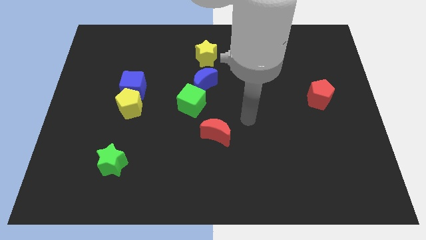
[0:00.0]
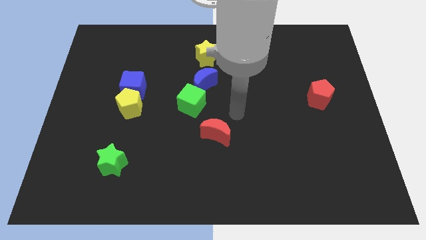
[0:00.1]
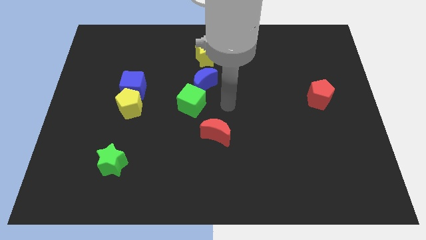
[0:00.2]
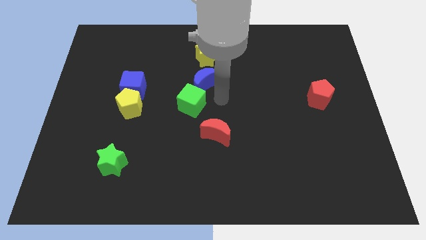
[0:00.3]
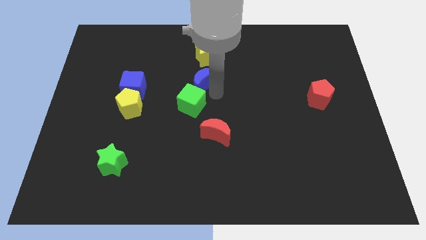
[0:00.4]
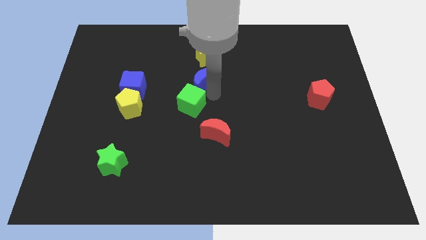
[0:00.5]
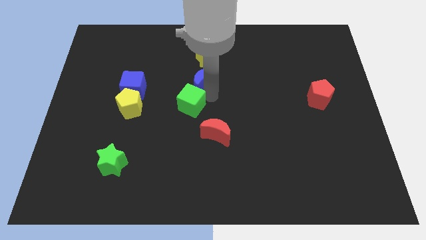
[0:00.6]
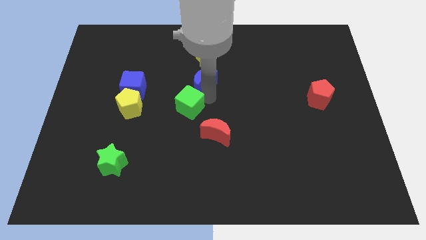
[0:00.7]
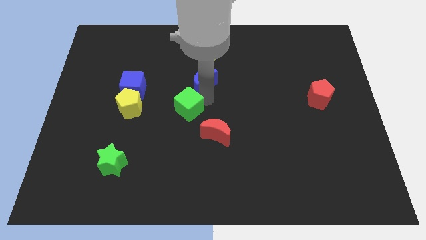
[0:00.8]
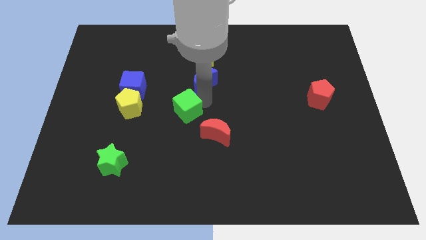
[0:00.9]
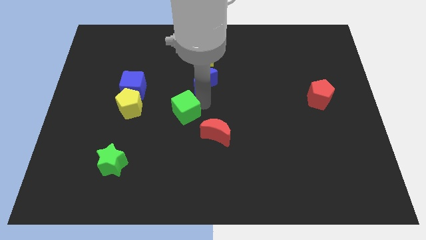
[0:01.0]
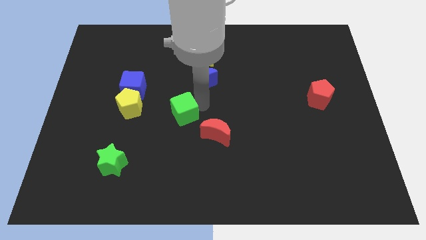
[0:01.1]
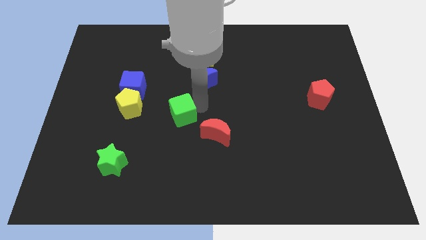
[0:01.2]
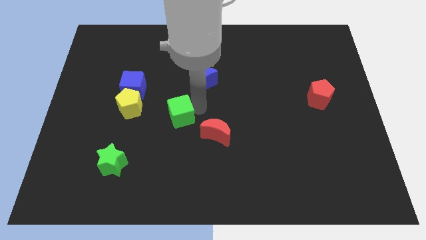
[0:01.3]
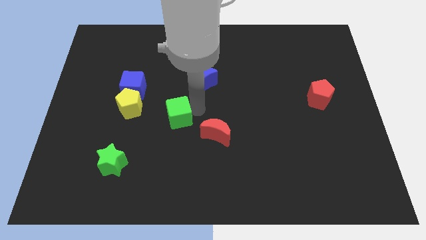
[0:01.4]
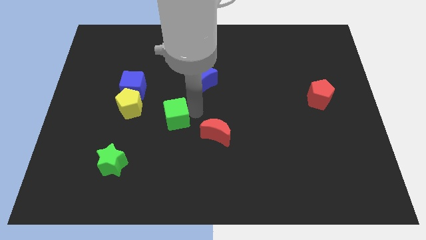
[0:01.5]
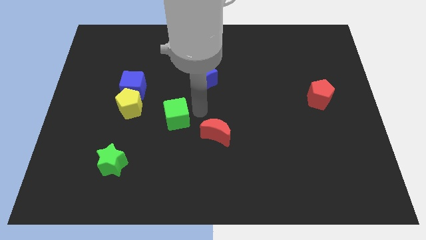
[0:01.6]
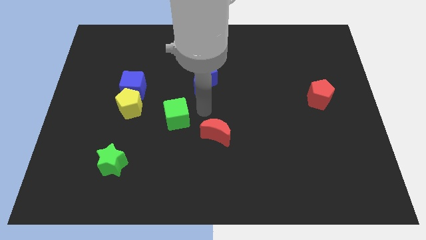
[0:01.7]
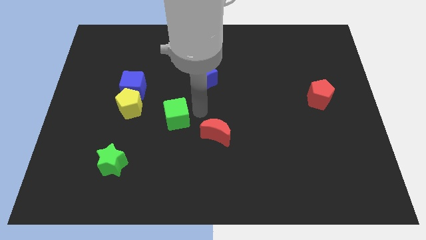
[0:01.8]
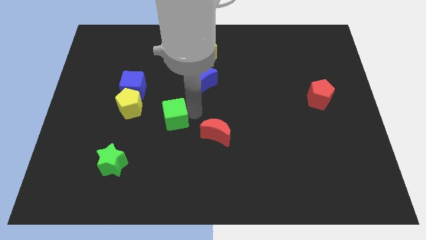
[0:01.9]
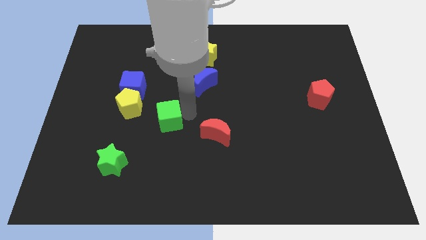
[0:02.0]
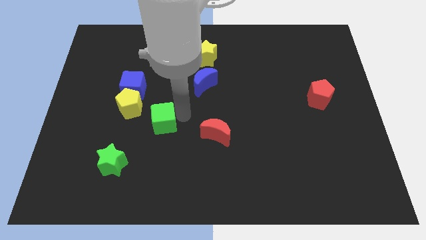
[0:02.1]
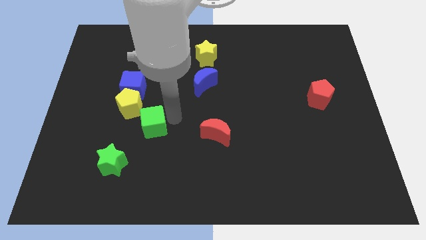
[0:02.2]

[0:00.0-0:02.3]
push the green cube somewhat left

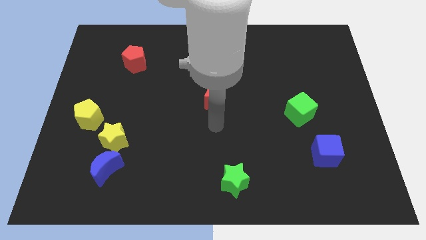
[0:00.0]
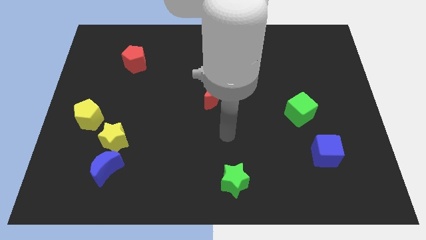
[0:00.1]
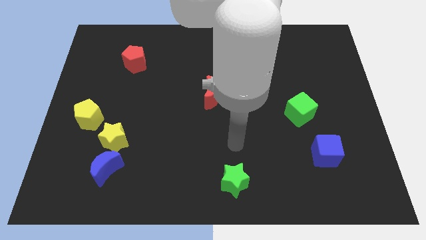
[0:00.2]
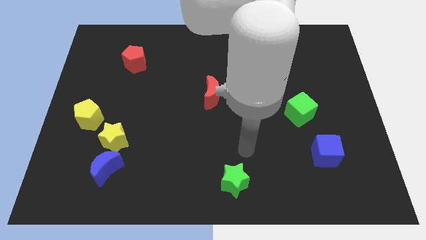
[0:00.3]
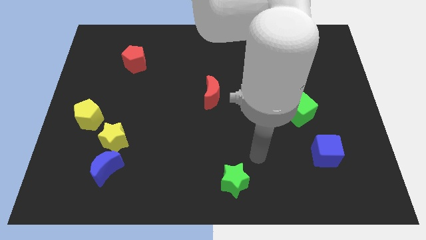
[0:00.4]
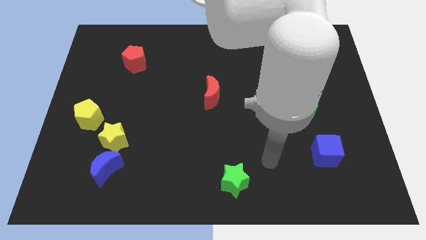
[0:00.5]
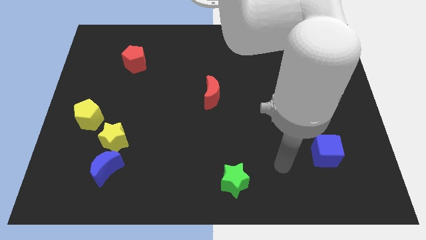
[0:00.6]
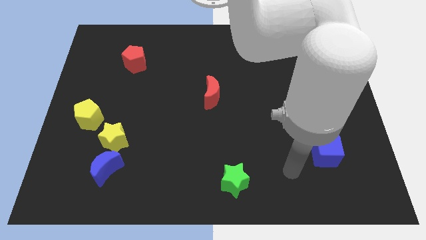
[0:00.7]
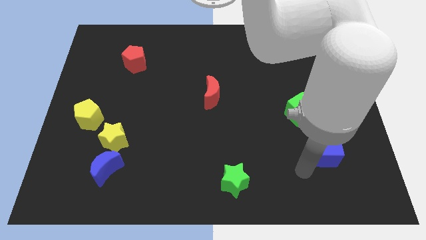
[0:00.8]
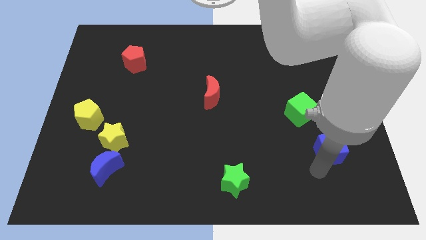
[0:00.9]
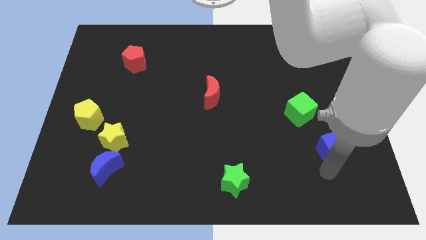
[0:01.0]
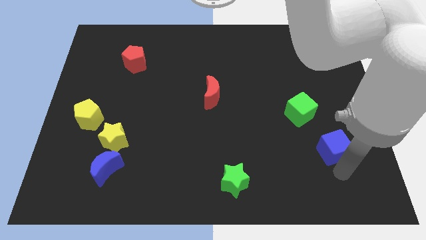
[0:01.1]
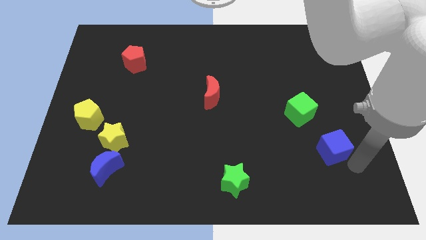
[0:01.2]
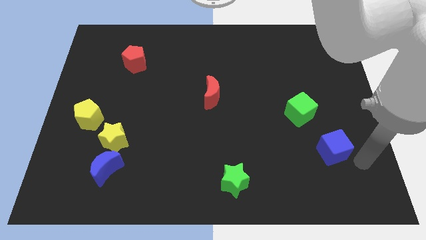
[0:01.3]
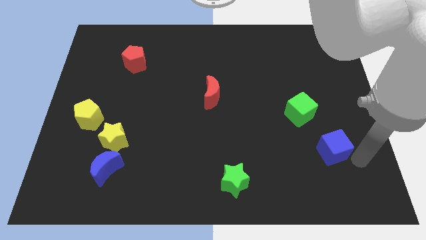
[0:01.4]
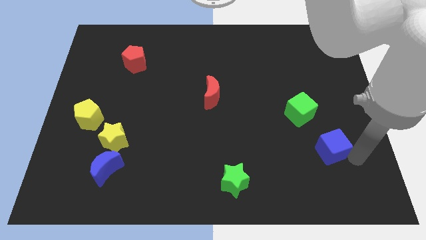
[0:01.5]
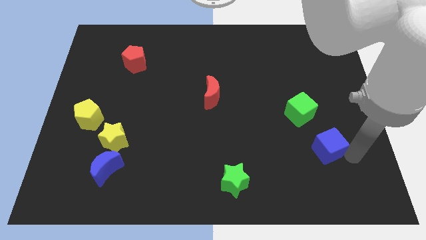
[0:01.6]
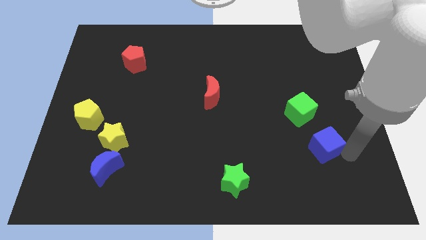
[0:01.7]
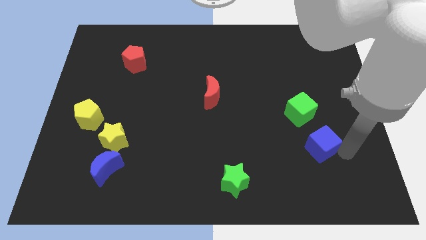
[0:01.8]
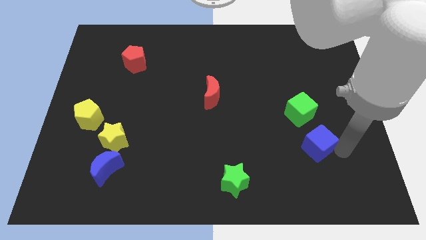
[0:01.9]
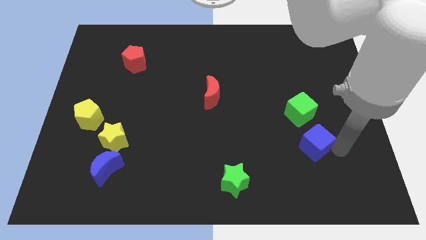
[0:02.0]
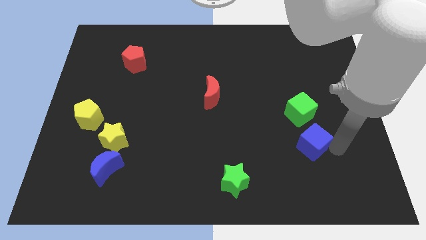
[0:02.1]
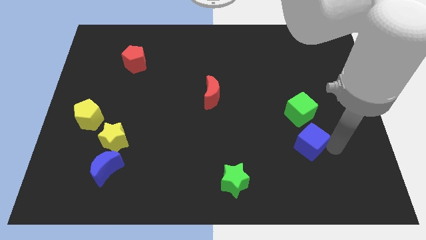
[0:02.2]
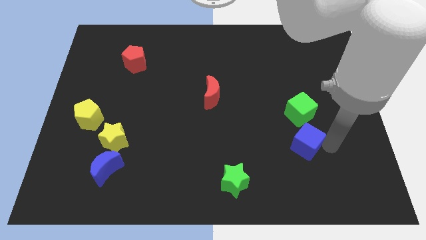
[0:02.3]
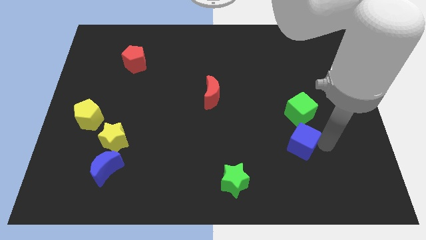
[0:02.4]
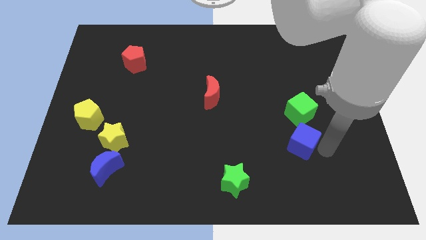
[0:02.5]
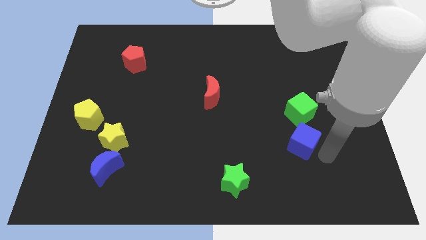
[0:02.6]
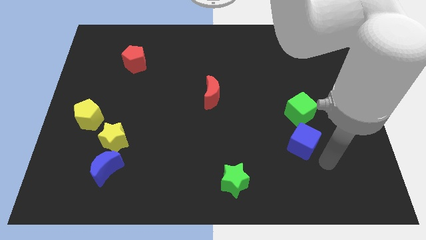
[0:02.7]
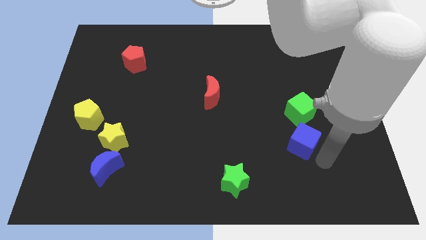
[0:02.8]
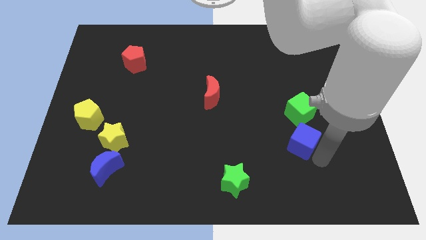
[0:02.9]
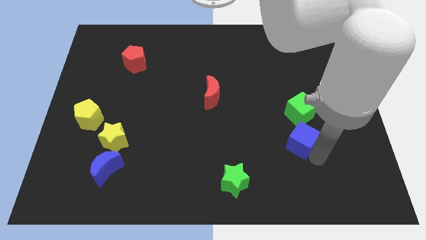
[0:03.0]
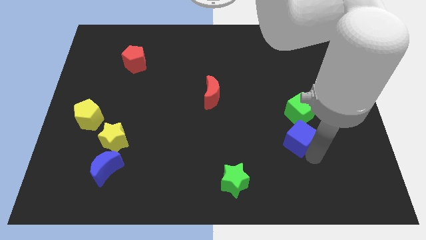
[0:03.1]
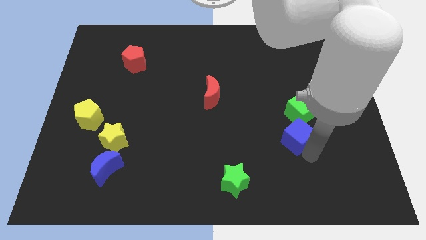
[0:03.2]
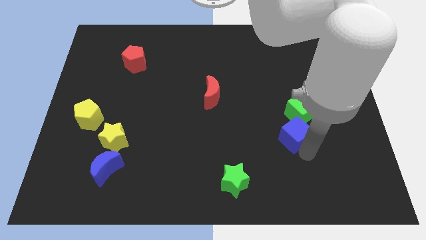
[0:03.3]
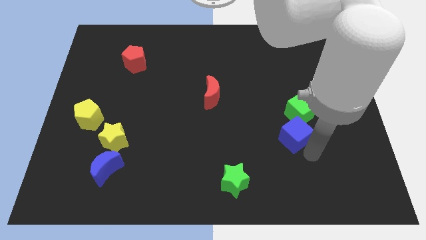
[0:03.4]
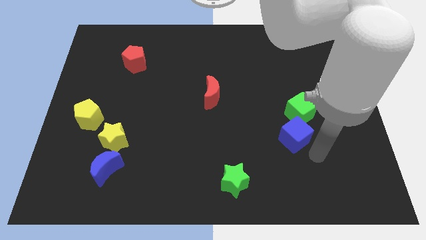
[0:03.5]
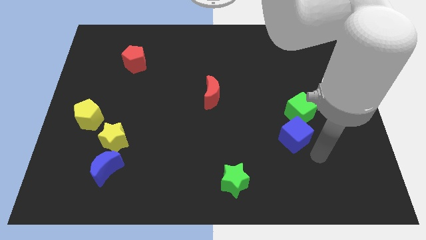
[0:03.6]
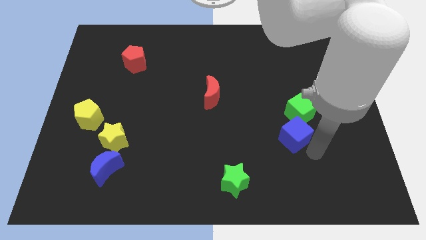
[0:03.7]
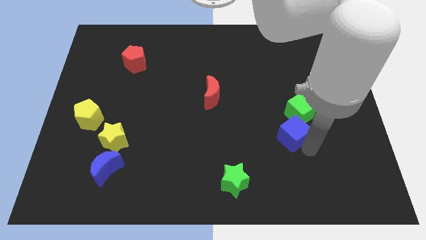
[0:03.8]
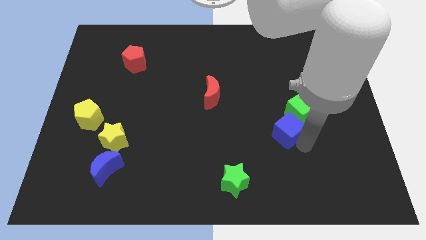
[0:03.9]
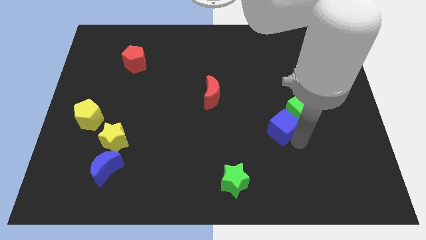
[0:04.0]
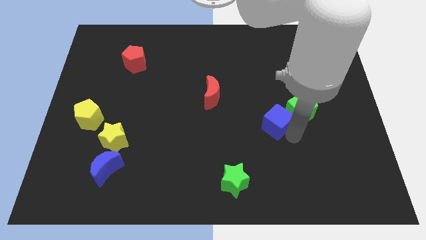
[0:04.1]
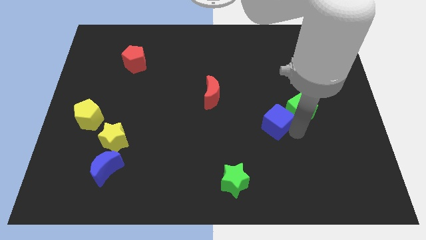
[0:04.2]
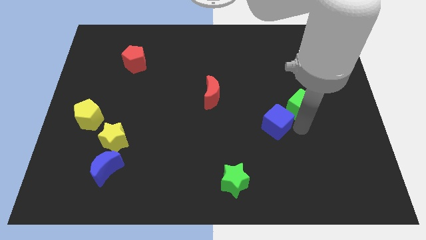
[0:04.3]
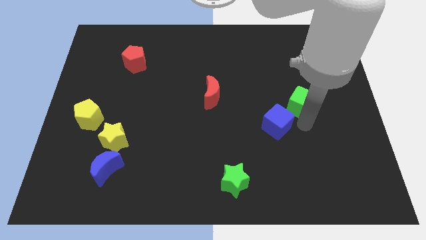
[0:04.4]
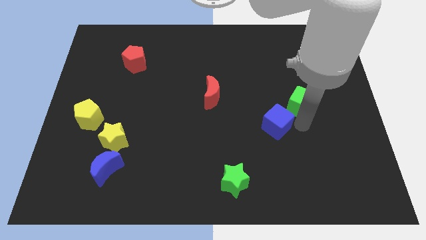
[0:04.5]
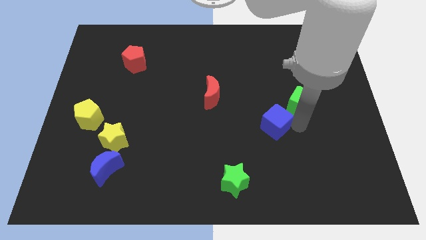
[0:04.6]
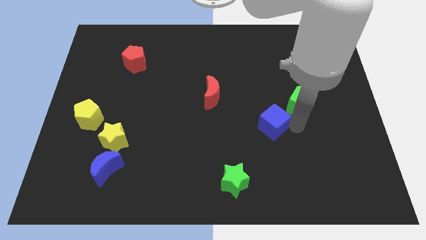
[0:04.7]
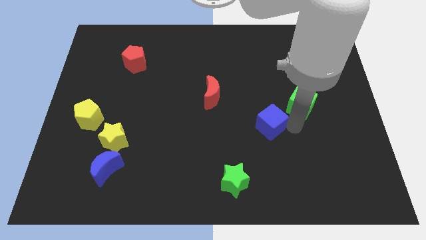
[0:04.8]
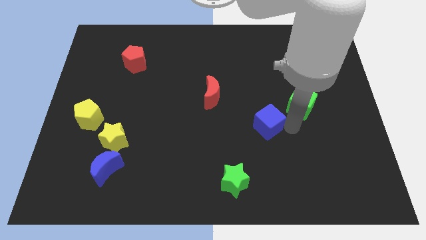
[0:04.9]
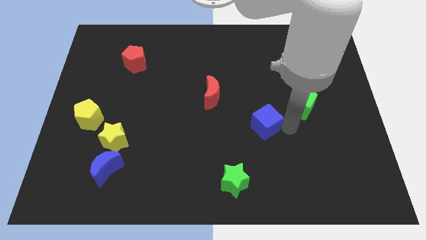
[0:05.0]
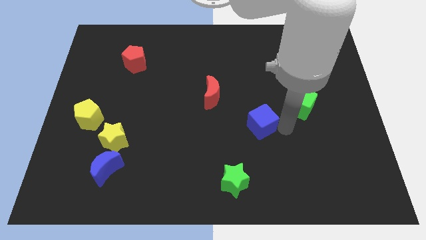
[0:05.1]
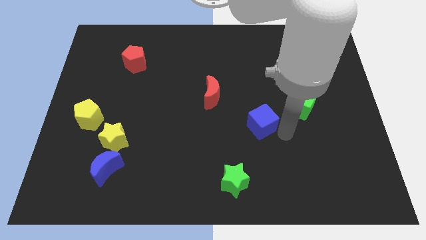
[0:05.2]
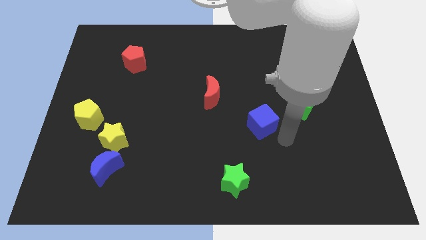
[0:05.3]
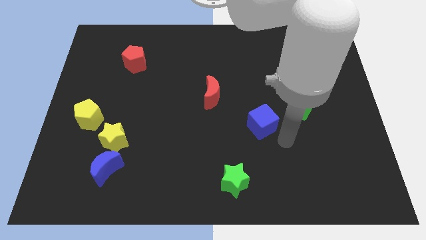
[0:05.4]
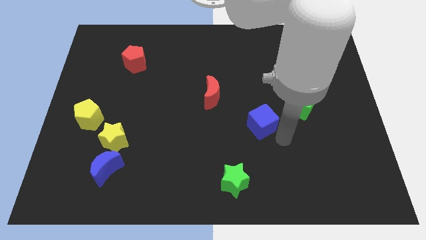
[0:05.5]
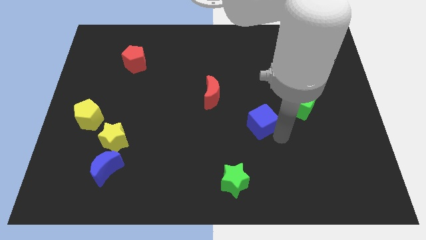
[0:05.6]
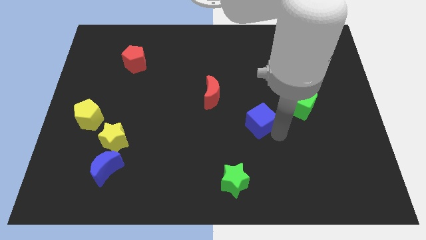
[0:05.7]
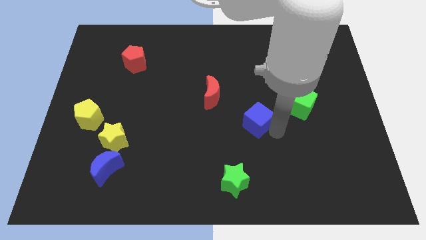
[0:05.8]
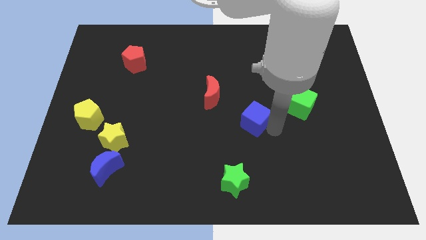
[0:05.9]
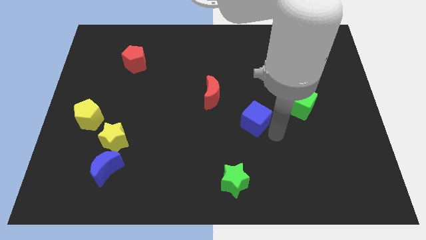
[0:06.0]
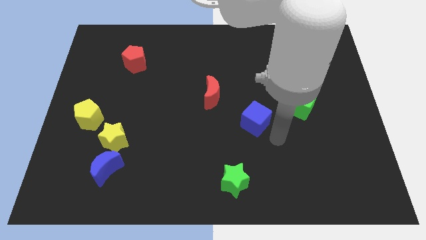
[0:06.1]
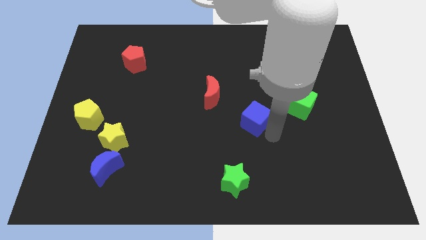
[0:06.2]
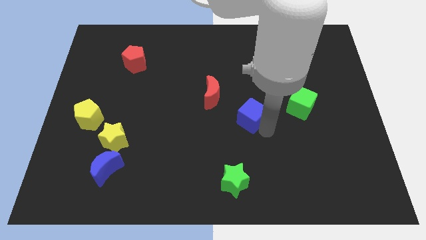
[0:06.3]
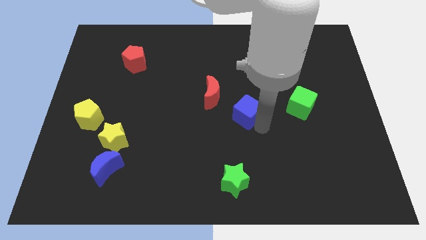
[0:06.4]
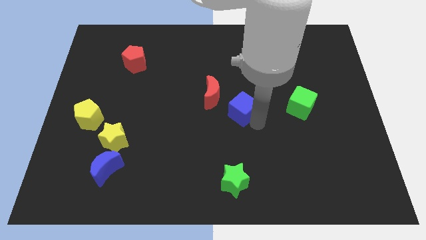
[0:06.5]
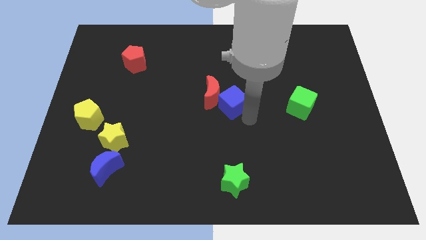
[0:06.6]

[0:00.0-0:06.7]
slide the blue cube up and then to the left
